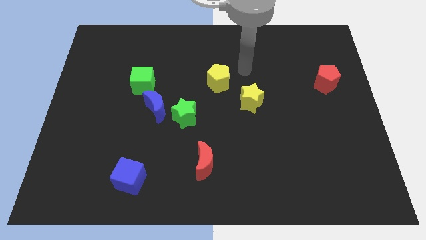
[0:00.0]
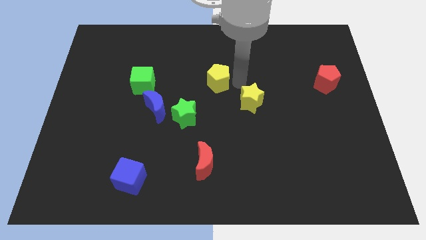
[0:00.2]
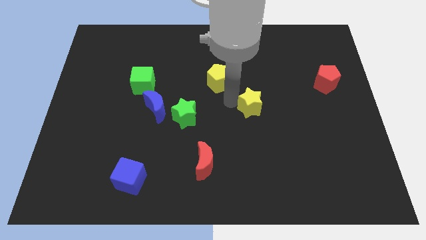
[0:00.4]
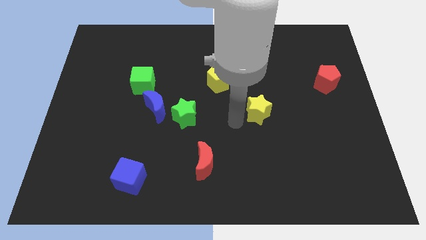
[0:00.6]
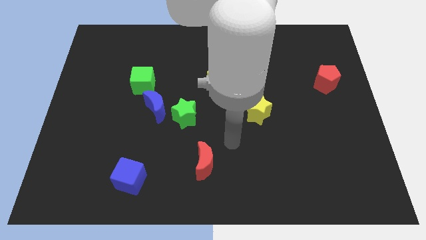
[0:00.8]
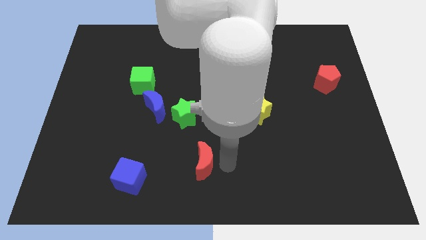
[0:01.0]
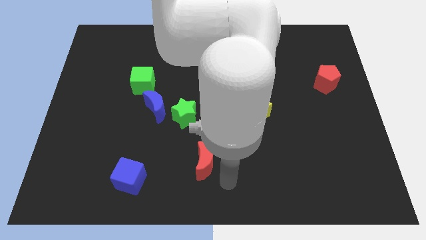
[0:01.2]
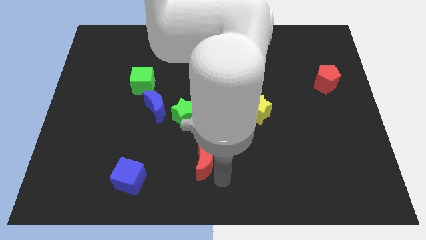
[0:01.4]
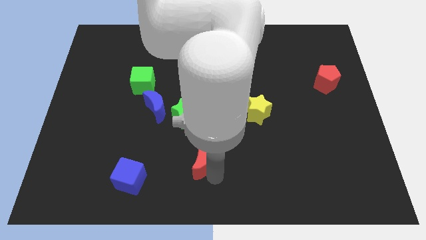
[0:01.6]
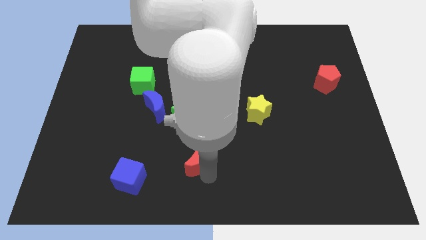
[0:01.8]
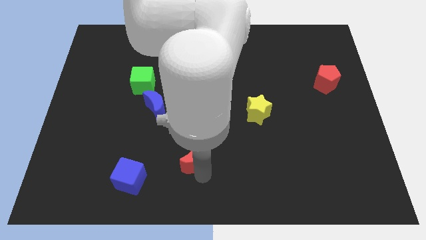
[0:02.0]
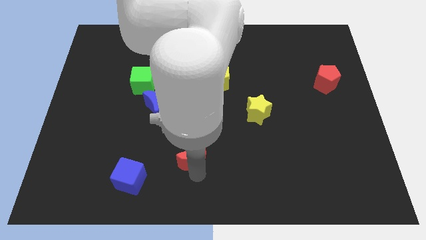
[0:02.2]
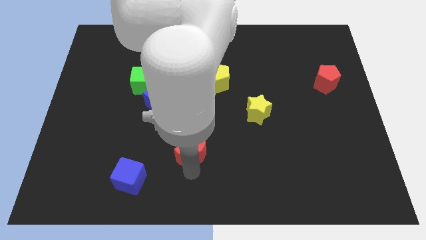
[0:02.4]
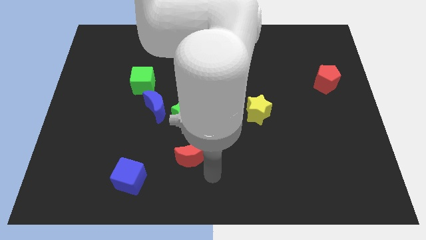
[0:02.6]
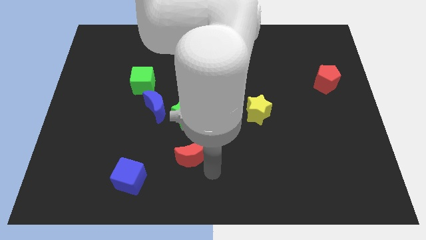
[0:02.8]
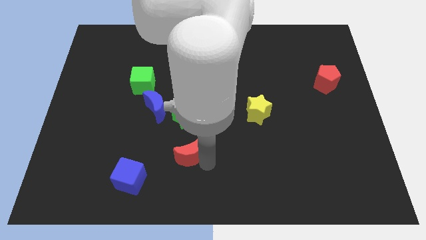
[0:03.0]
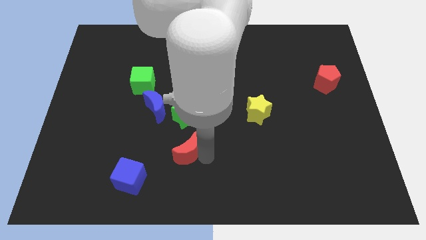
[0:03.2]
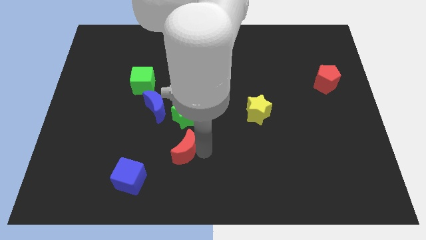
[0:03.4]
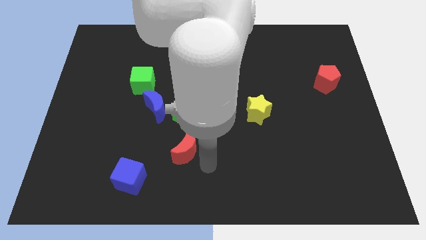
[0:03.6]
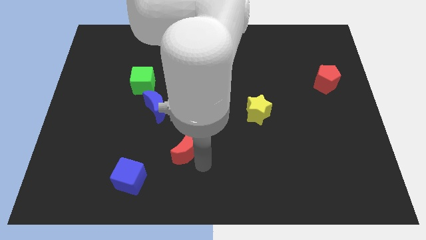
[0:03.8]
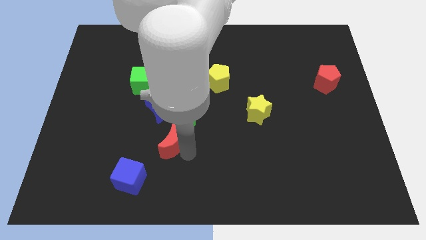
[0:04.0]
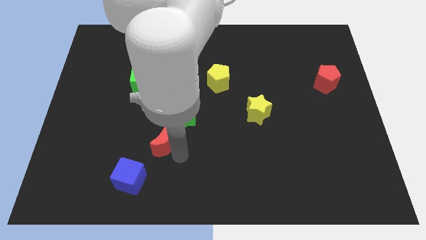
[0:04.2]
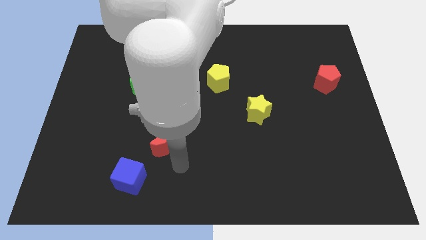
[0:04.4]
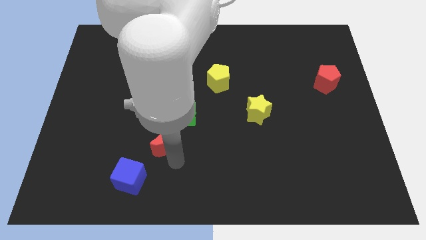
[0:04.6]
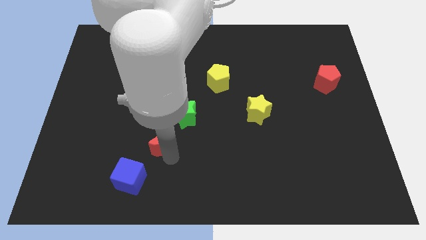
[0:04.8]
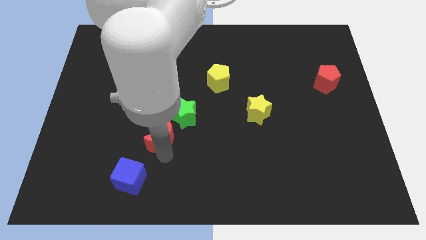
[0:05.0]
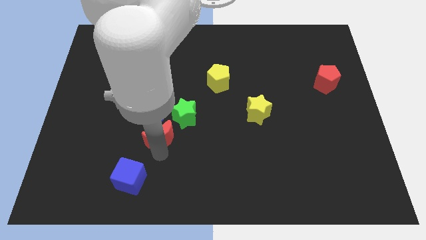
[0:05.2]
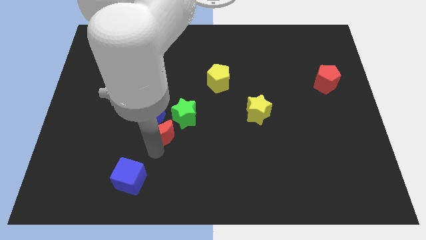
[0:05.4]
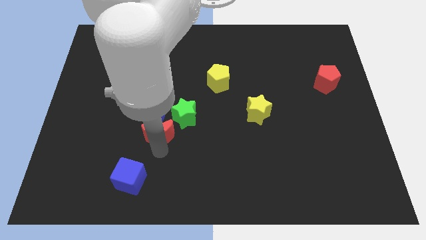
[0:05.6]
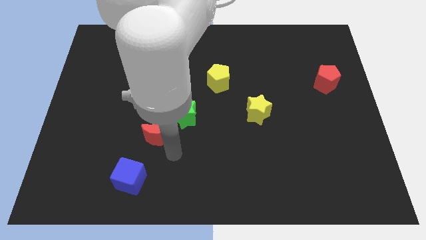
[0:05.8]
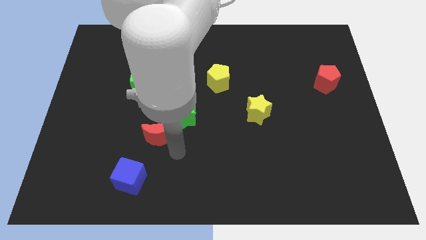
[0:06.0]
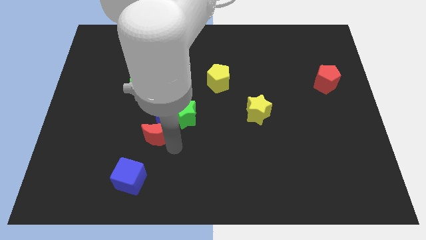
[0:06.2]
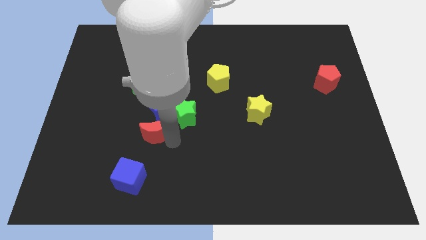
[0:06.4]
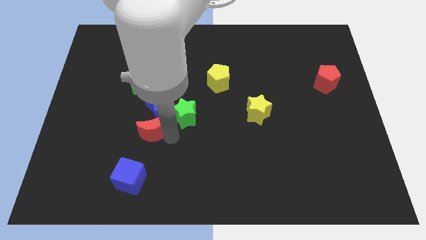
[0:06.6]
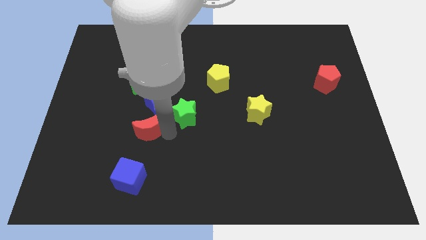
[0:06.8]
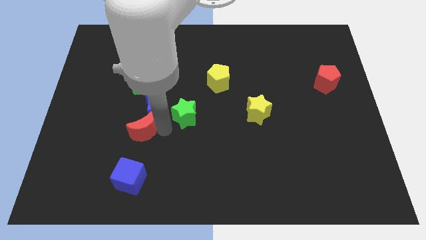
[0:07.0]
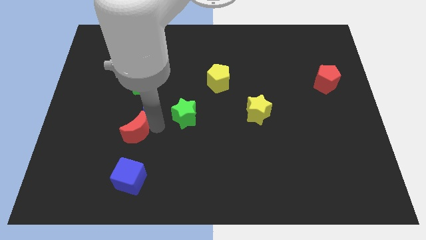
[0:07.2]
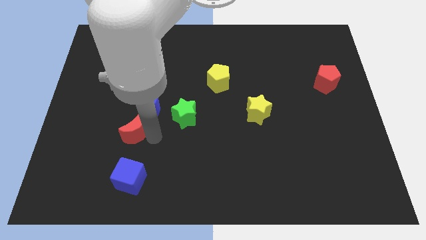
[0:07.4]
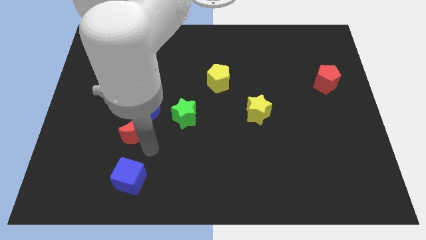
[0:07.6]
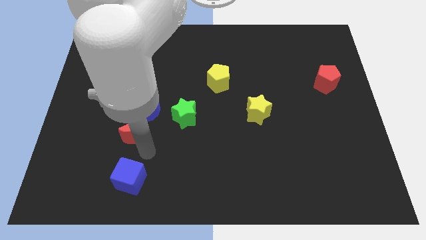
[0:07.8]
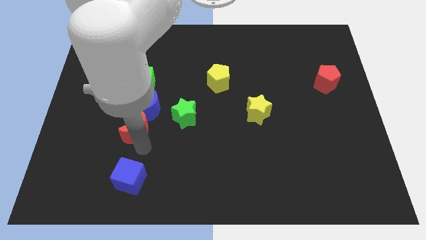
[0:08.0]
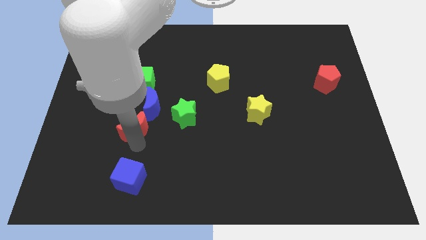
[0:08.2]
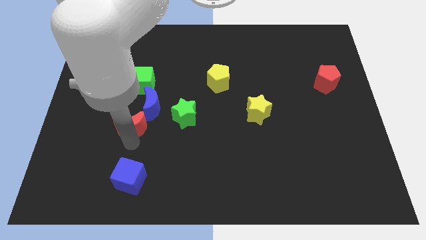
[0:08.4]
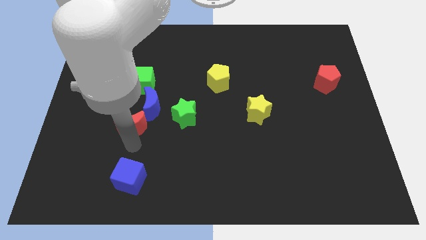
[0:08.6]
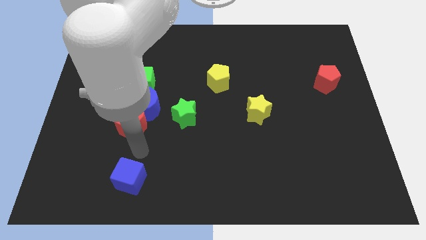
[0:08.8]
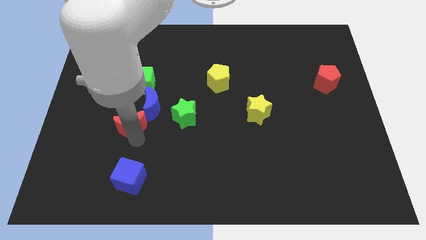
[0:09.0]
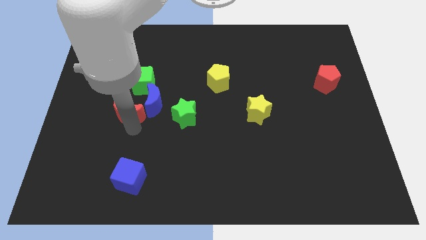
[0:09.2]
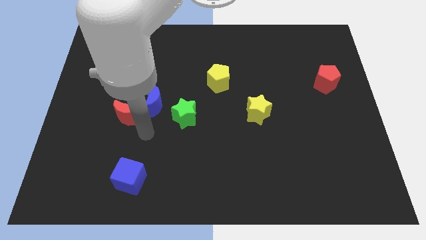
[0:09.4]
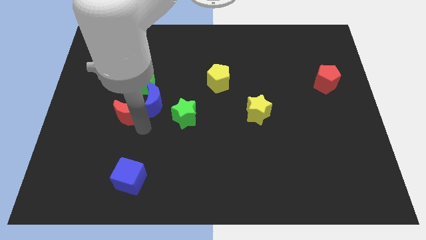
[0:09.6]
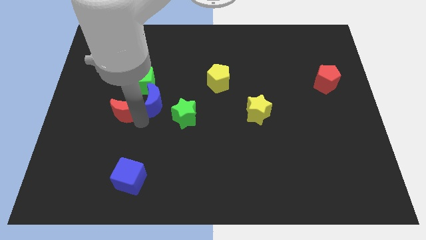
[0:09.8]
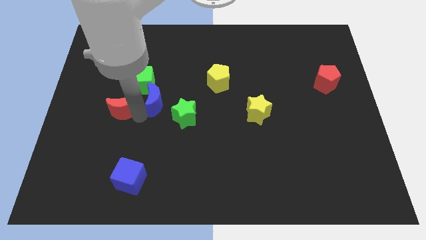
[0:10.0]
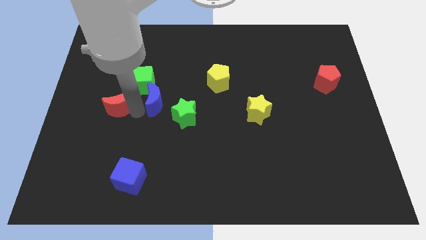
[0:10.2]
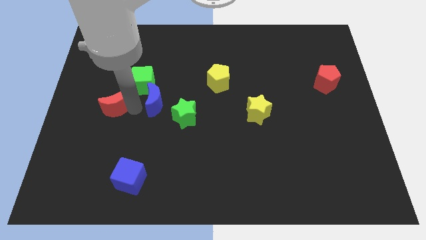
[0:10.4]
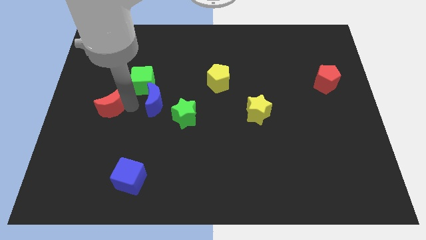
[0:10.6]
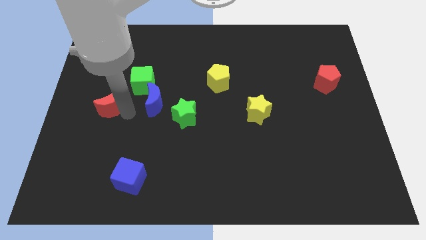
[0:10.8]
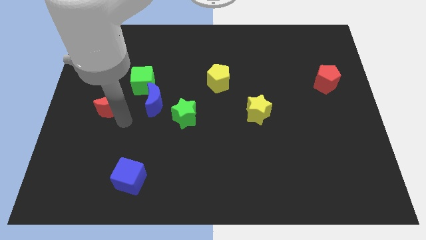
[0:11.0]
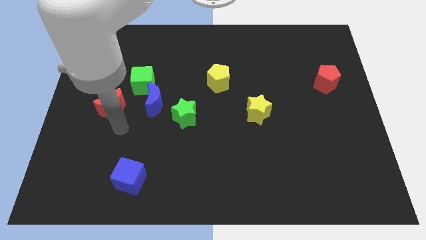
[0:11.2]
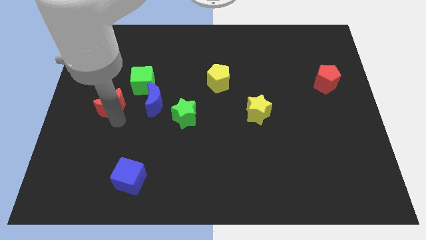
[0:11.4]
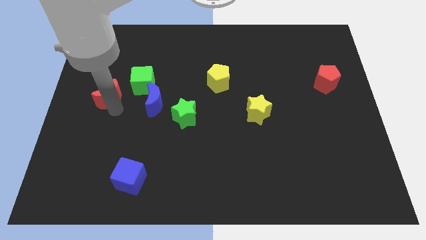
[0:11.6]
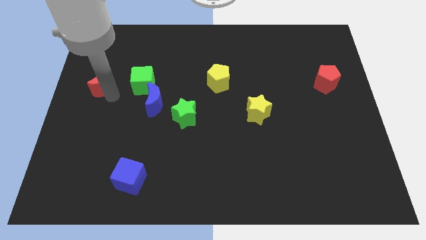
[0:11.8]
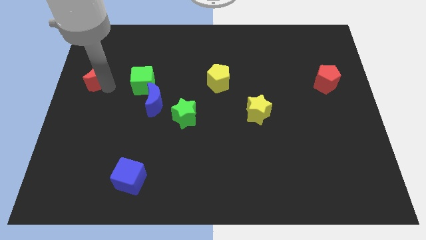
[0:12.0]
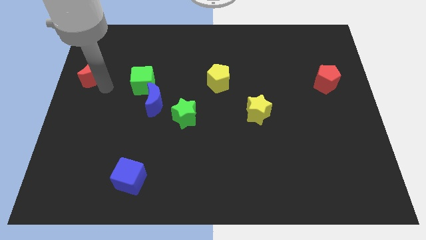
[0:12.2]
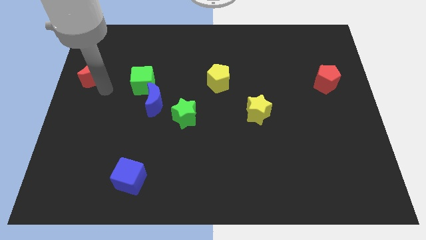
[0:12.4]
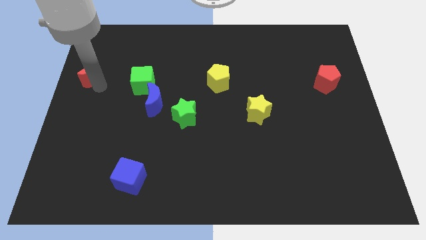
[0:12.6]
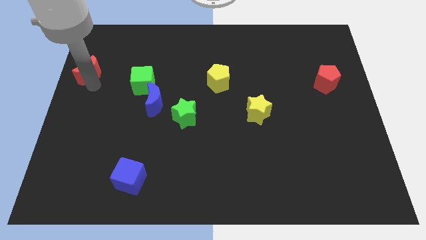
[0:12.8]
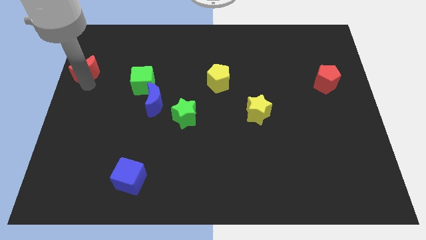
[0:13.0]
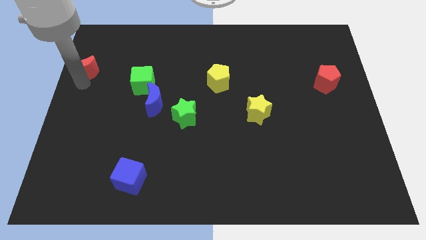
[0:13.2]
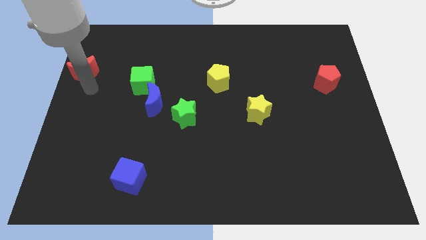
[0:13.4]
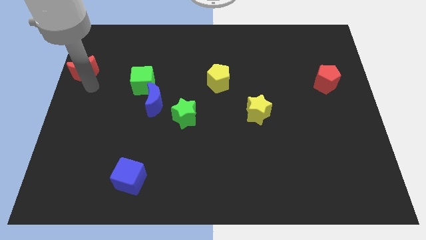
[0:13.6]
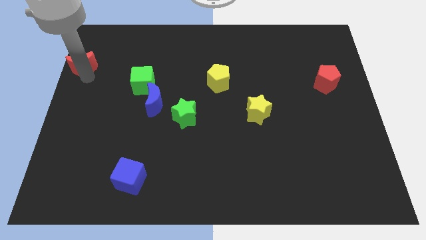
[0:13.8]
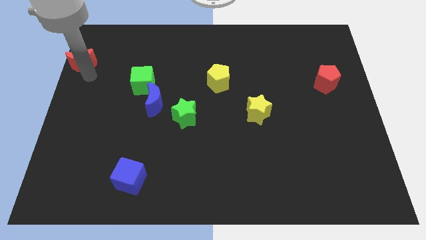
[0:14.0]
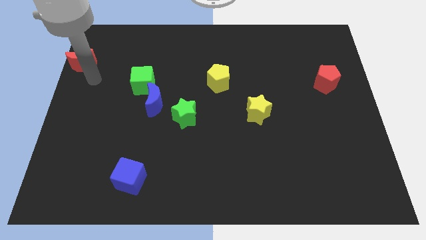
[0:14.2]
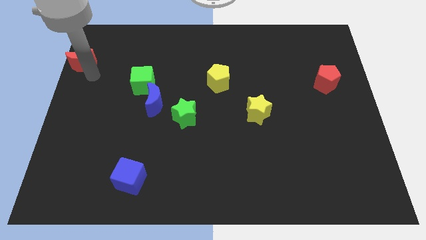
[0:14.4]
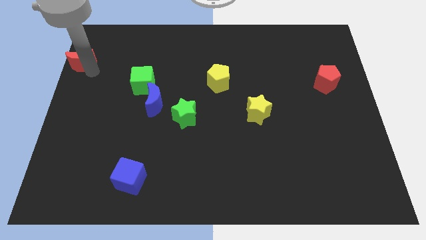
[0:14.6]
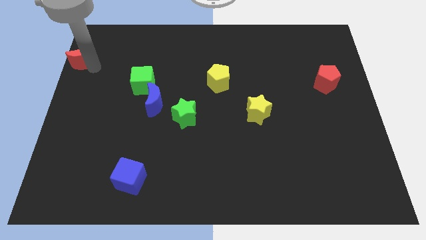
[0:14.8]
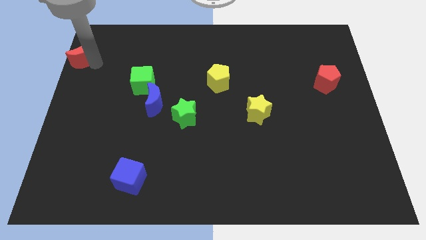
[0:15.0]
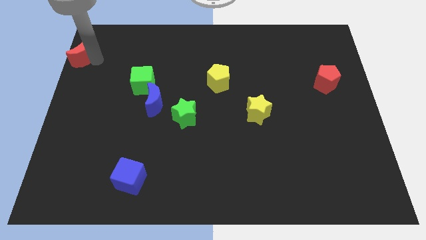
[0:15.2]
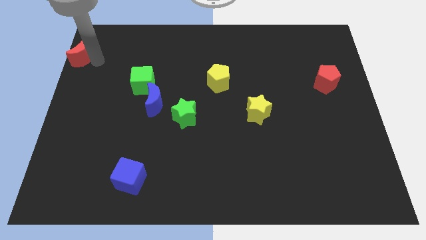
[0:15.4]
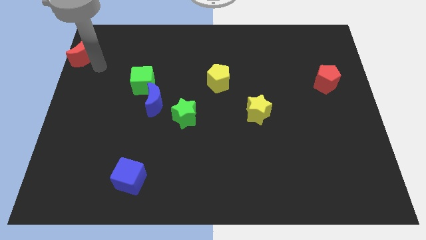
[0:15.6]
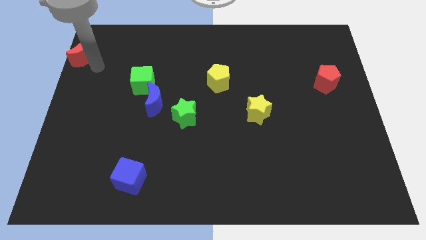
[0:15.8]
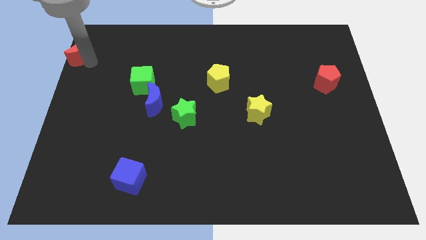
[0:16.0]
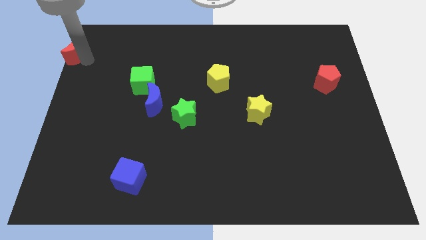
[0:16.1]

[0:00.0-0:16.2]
move the red moon to the top left
